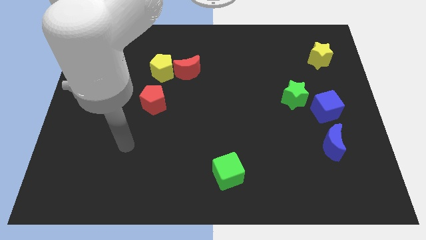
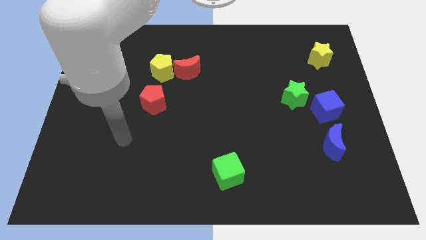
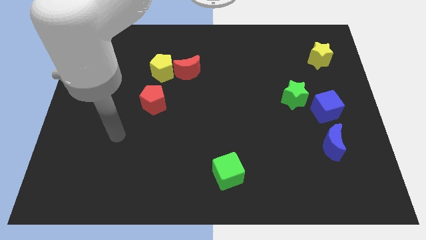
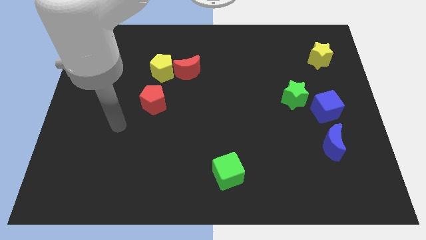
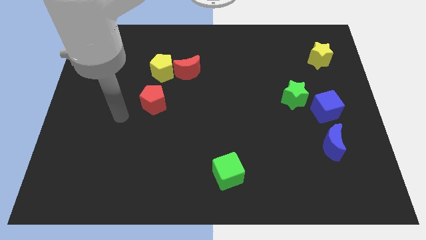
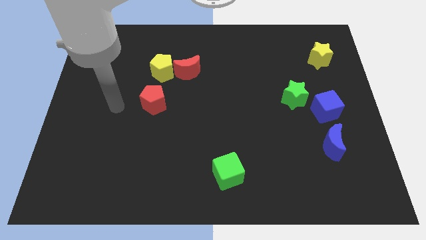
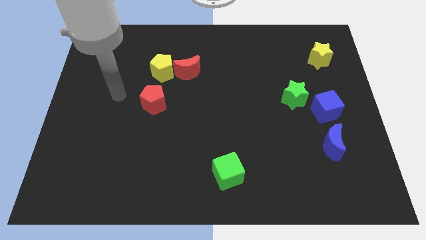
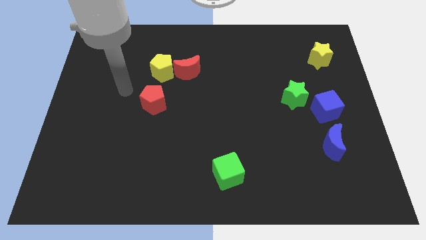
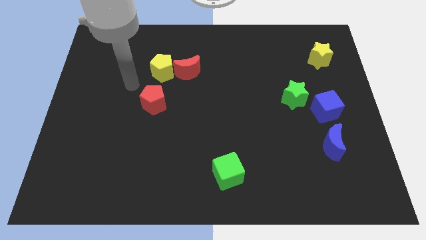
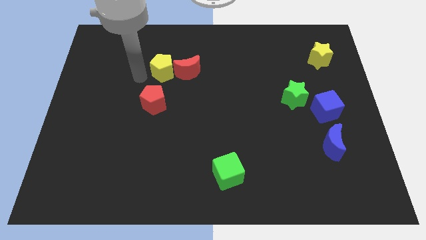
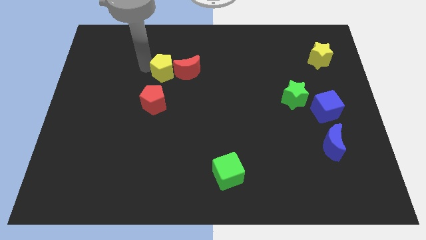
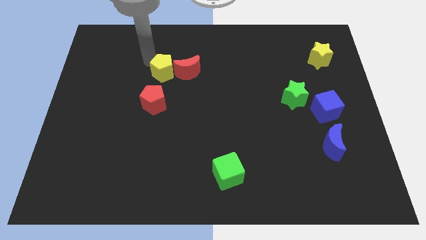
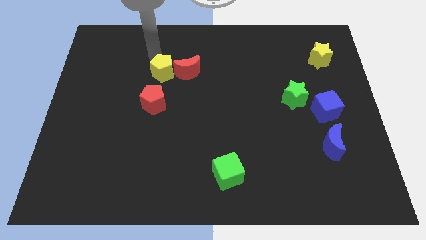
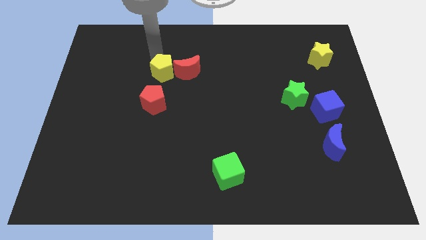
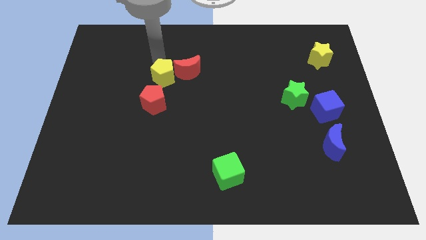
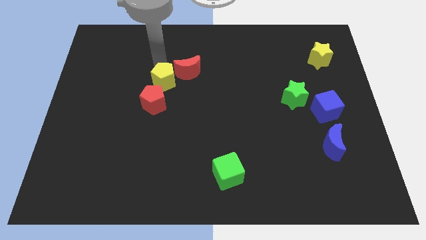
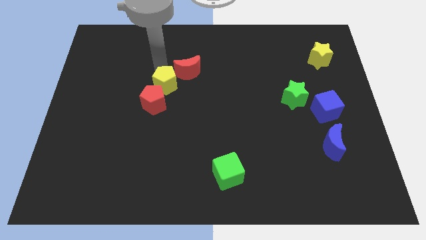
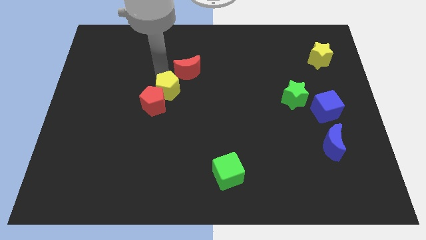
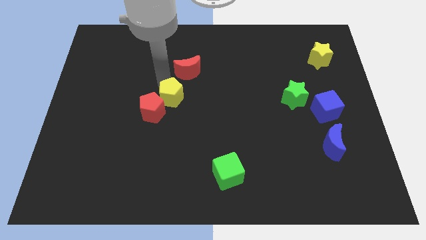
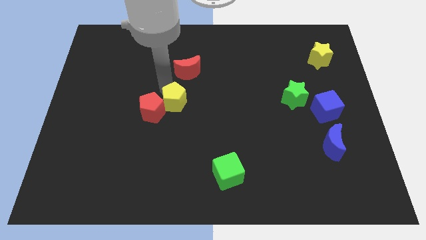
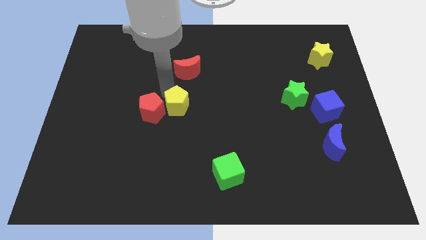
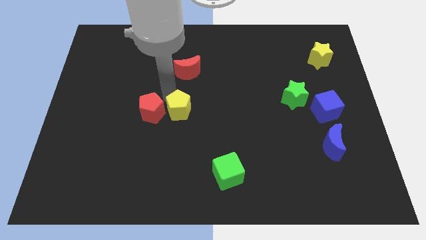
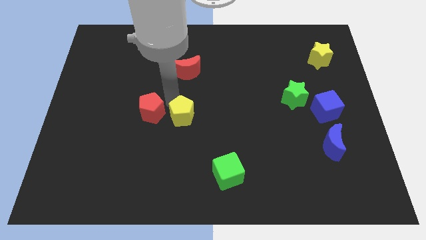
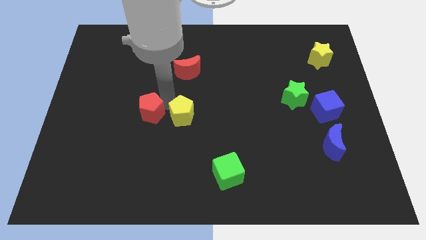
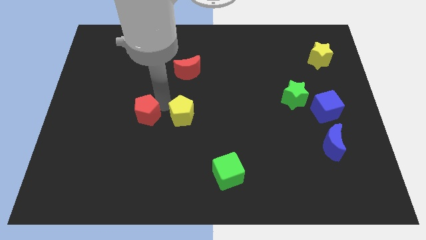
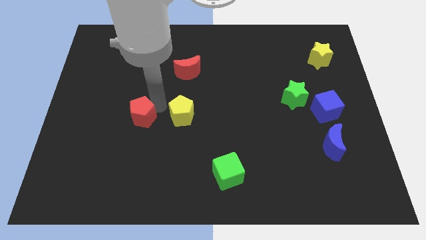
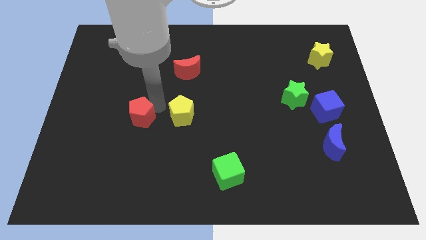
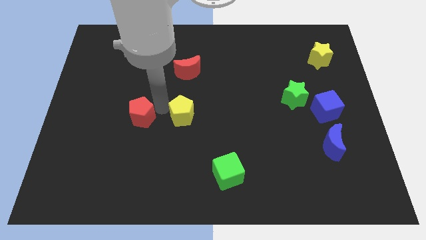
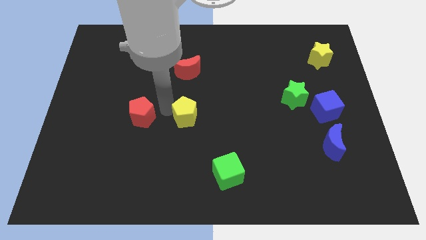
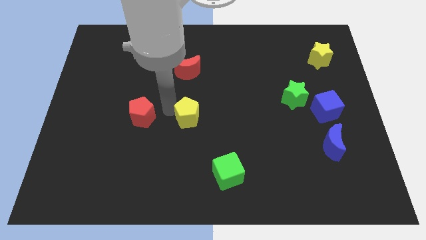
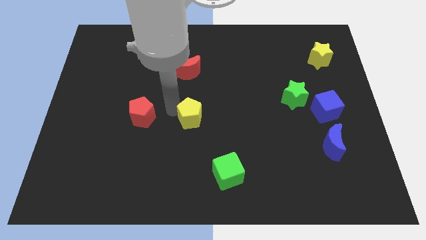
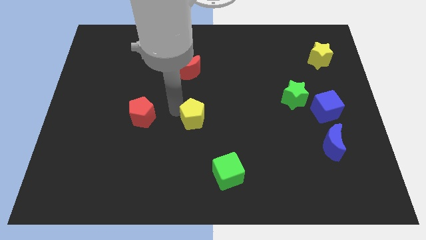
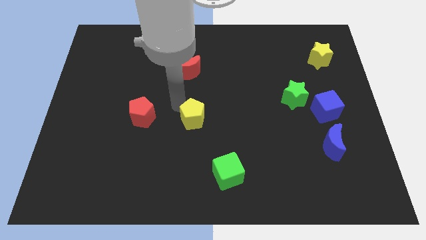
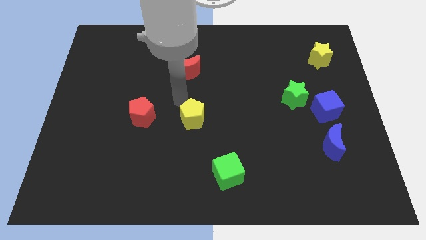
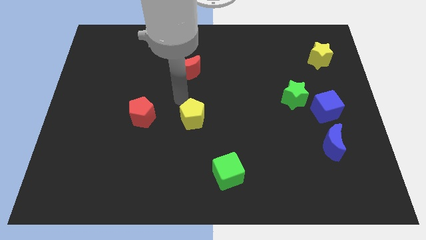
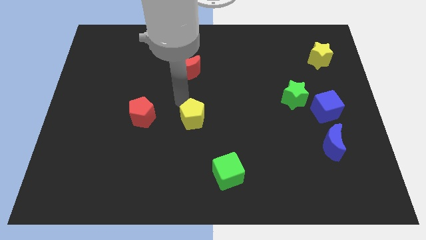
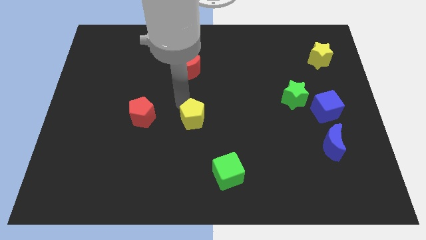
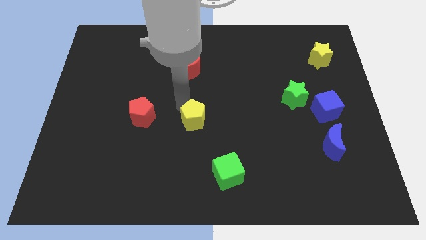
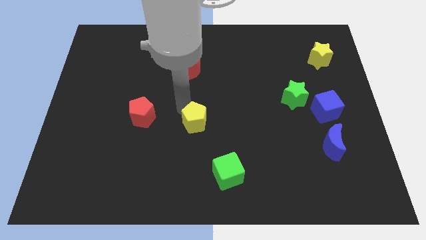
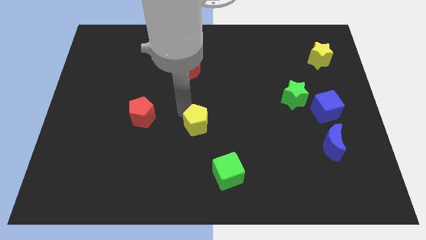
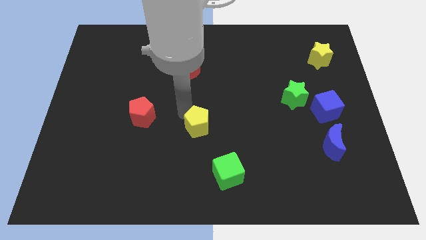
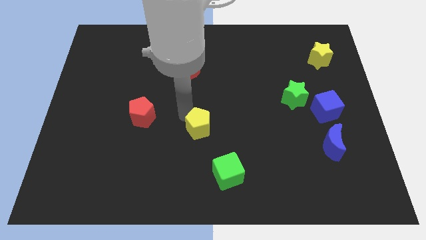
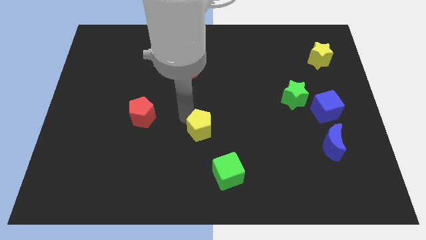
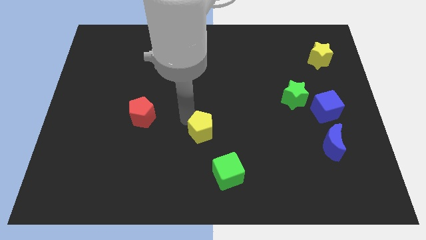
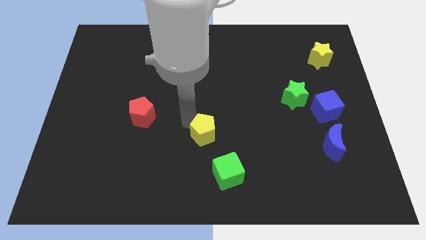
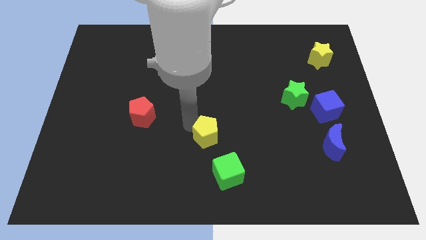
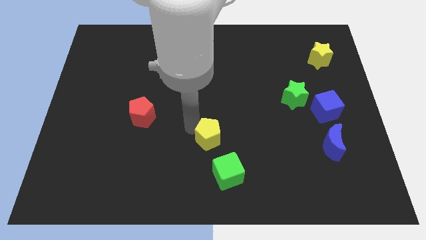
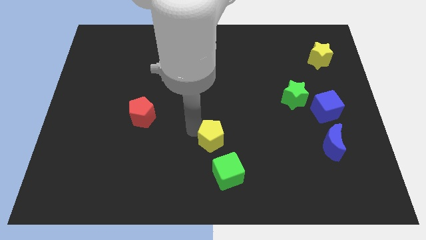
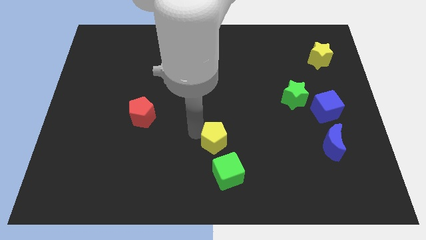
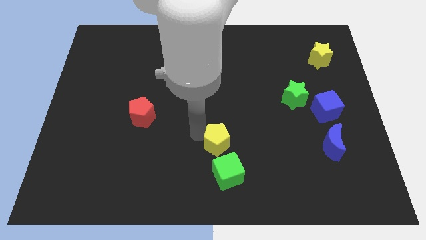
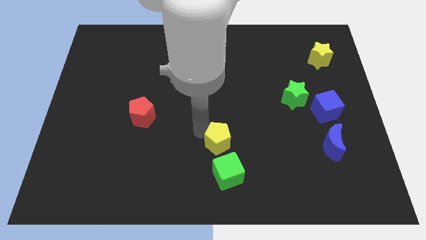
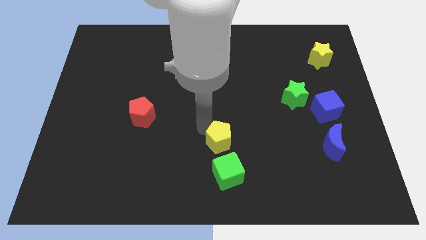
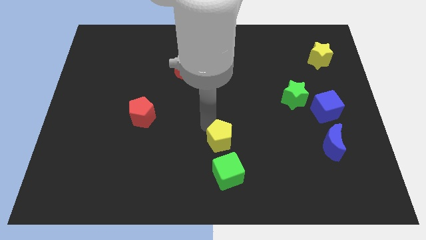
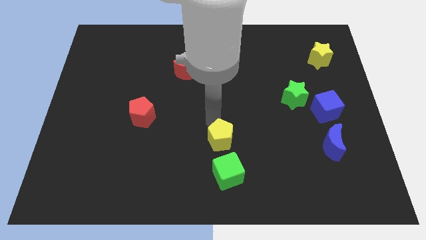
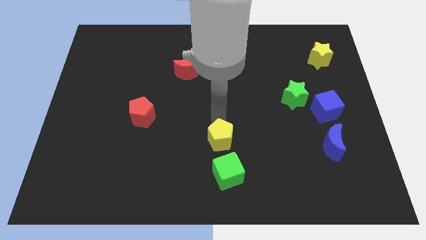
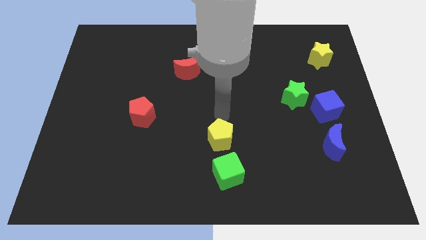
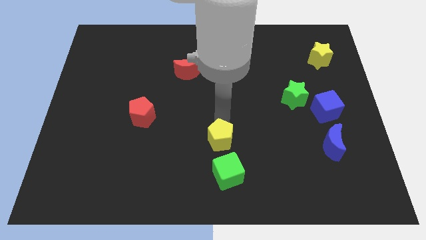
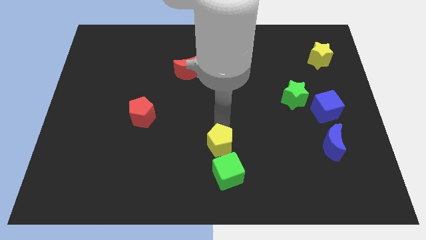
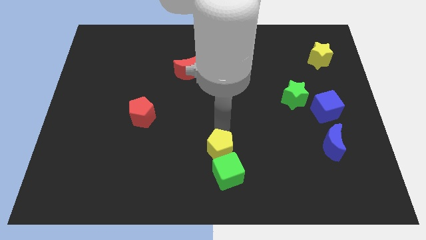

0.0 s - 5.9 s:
slide the yellow pentagon to the green cube
